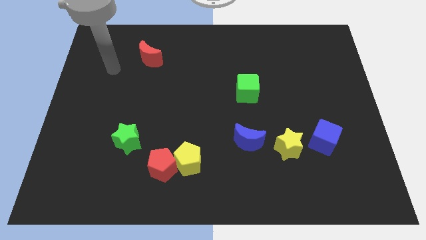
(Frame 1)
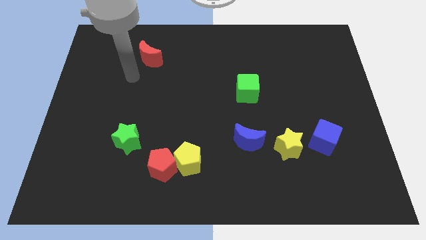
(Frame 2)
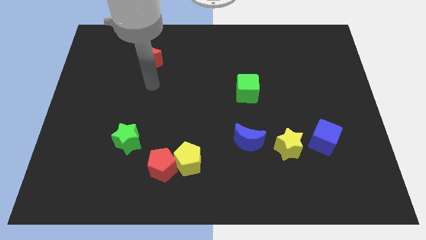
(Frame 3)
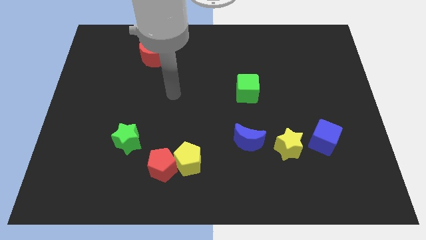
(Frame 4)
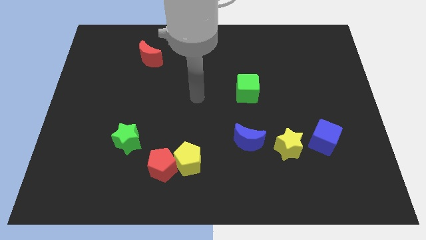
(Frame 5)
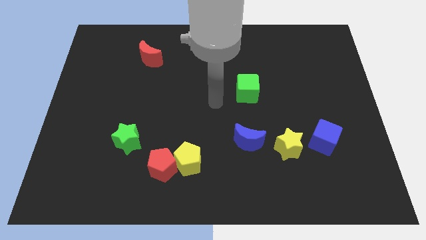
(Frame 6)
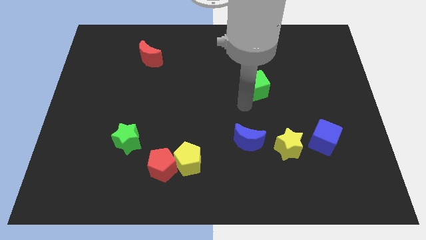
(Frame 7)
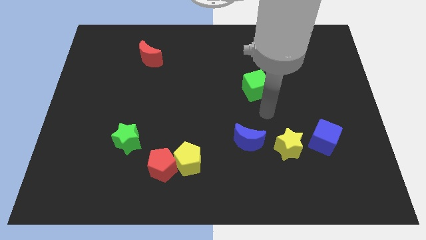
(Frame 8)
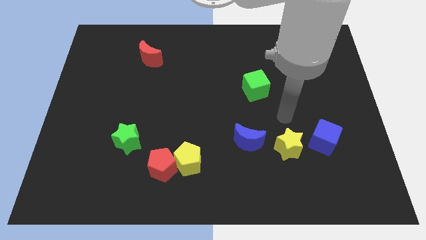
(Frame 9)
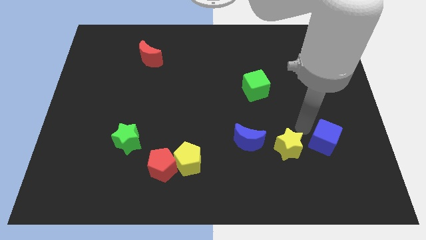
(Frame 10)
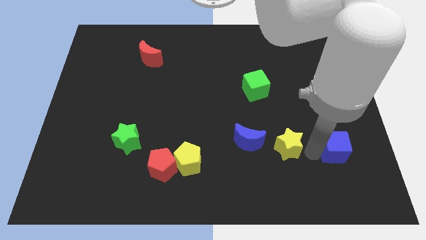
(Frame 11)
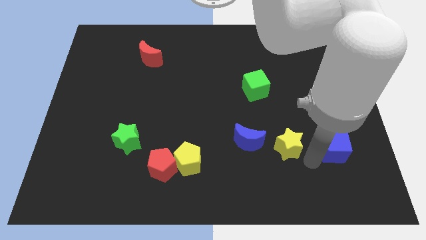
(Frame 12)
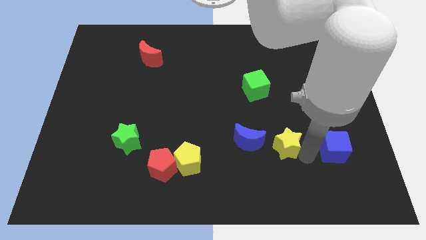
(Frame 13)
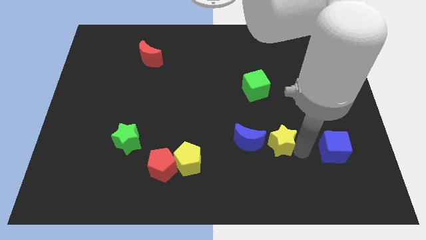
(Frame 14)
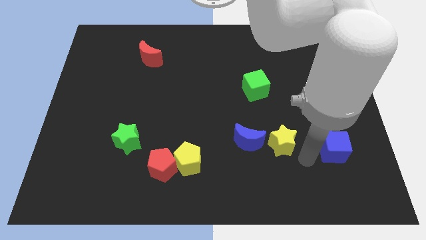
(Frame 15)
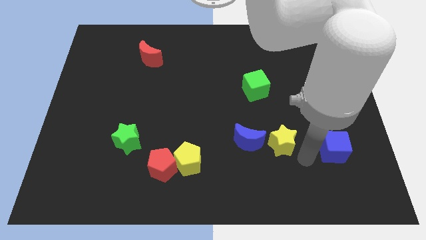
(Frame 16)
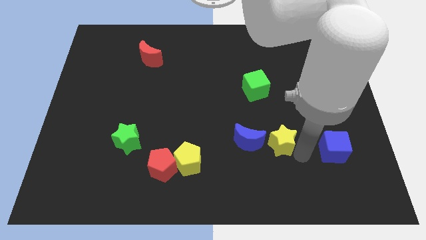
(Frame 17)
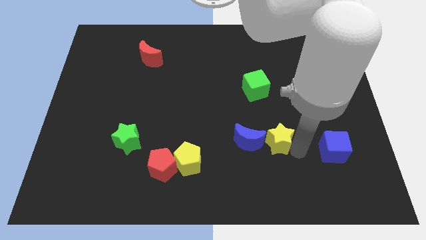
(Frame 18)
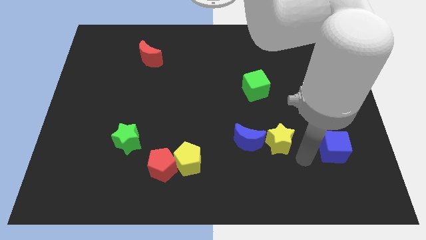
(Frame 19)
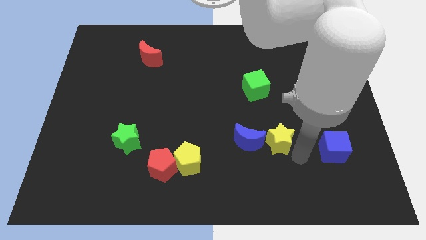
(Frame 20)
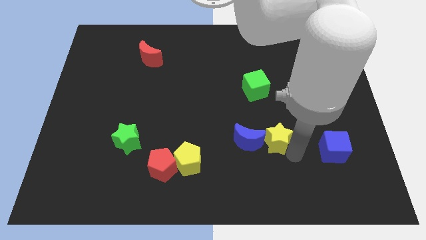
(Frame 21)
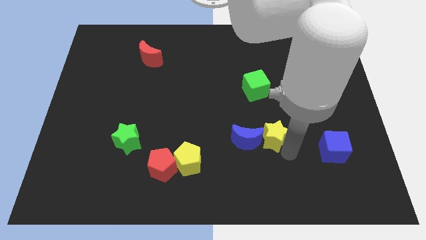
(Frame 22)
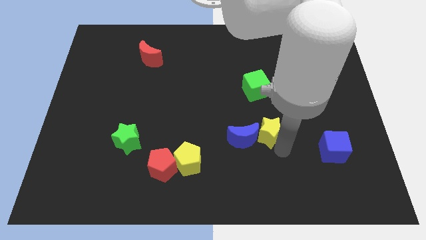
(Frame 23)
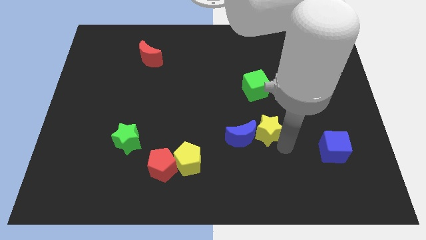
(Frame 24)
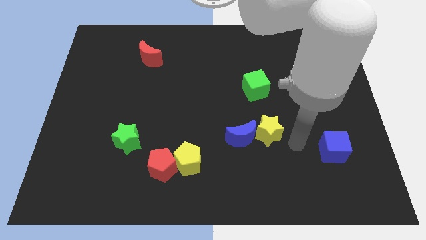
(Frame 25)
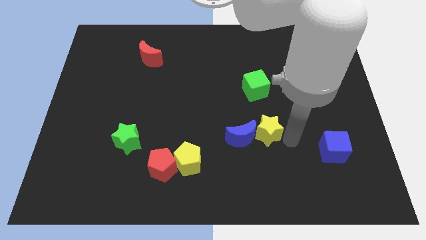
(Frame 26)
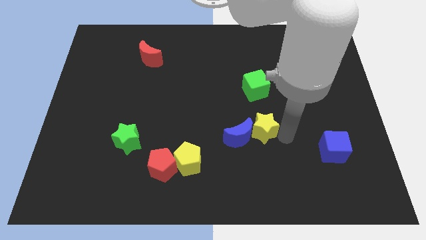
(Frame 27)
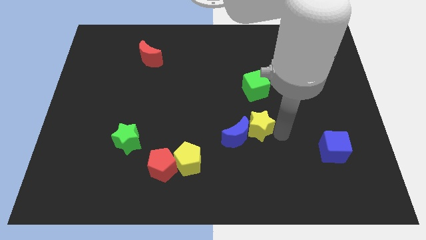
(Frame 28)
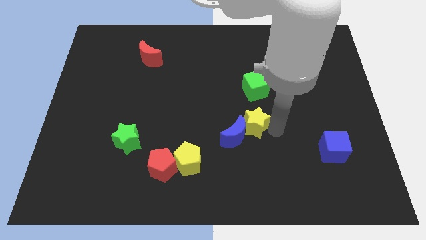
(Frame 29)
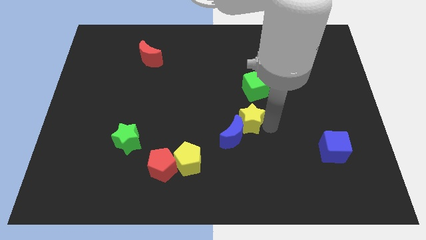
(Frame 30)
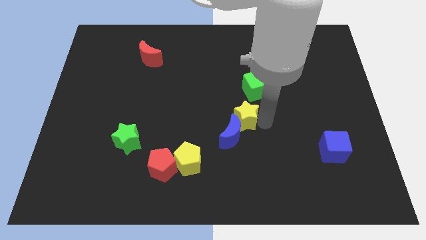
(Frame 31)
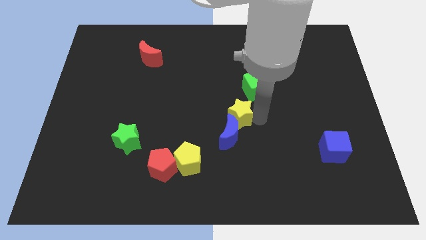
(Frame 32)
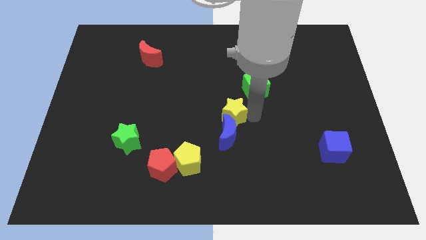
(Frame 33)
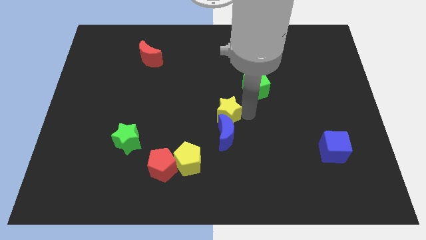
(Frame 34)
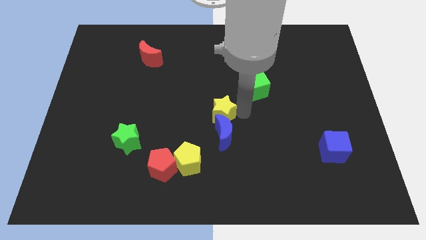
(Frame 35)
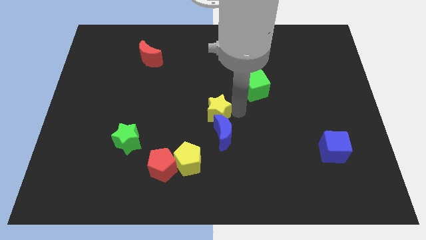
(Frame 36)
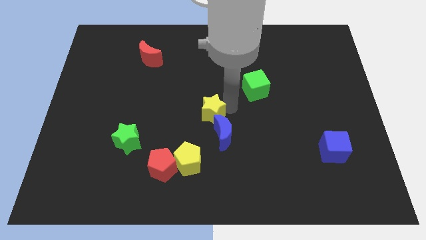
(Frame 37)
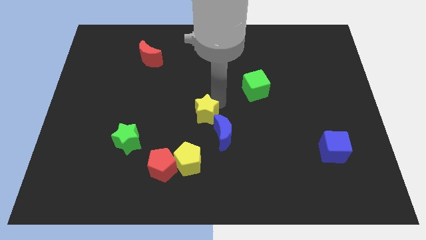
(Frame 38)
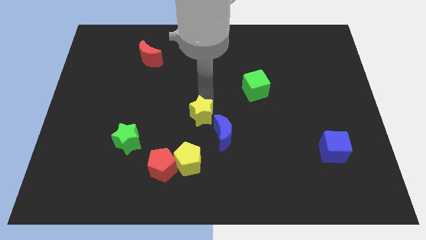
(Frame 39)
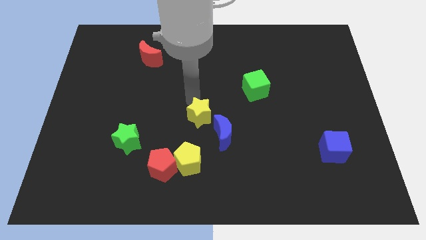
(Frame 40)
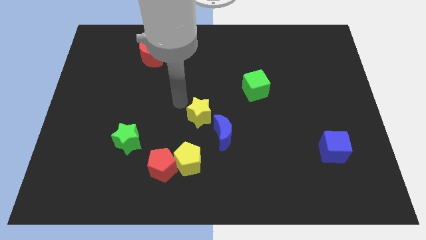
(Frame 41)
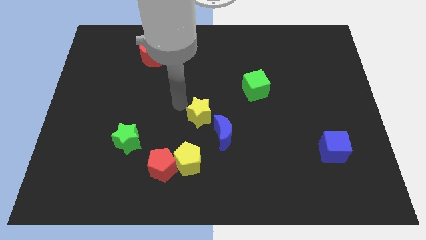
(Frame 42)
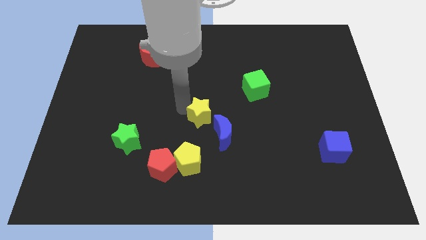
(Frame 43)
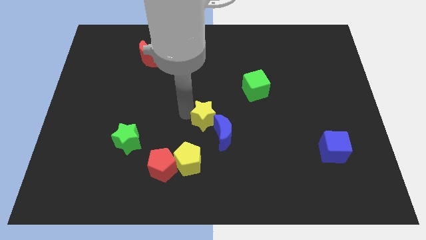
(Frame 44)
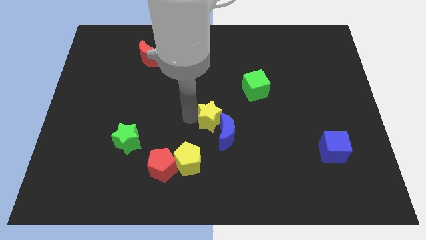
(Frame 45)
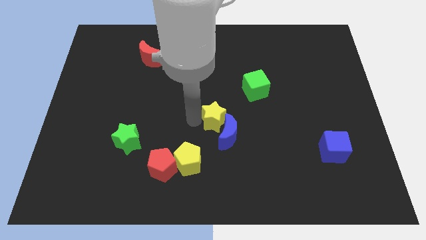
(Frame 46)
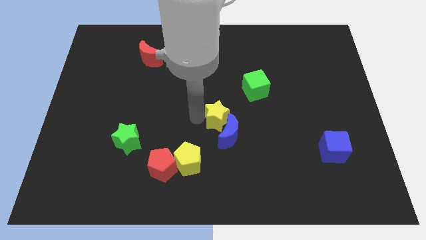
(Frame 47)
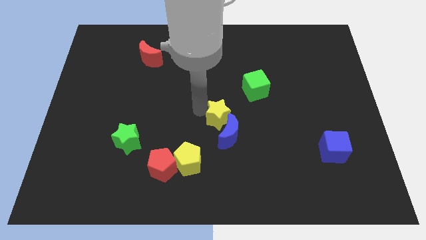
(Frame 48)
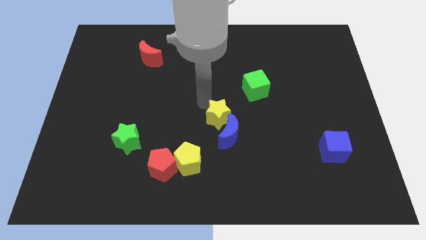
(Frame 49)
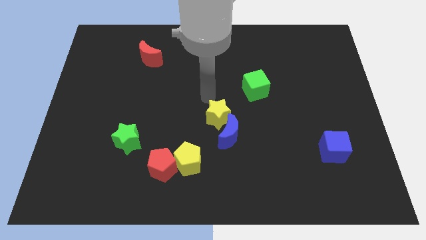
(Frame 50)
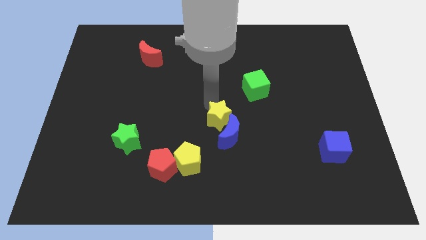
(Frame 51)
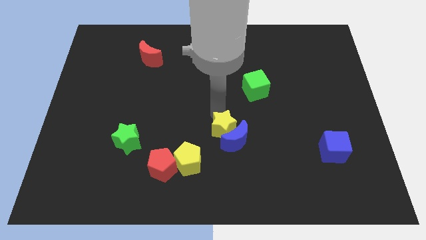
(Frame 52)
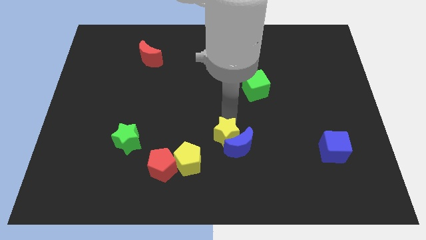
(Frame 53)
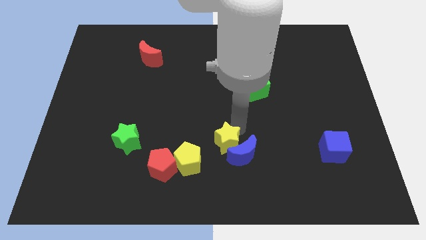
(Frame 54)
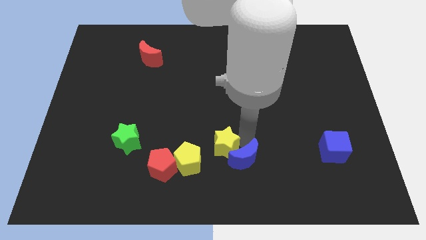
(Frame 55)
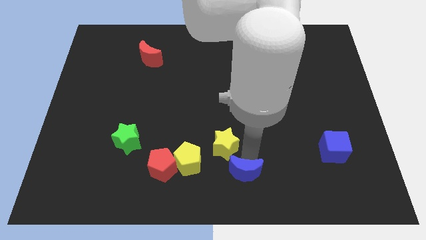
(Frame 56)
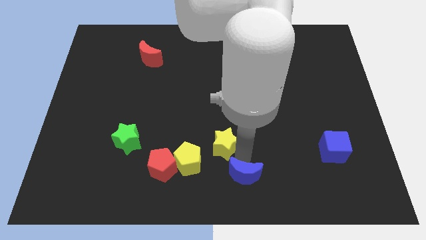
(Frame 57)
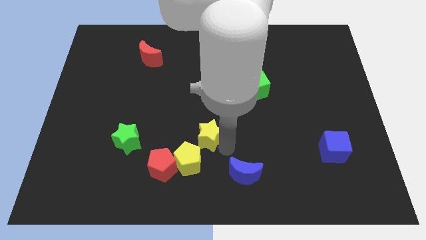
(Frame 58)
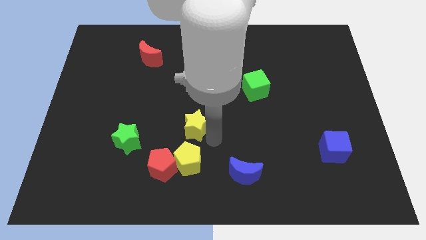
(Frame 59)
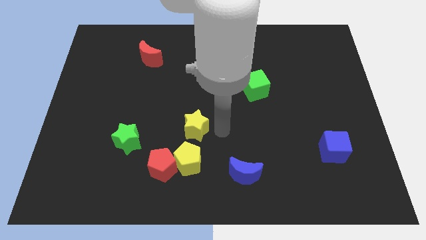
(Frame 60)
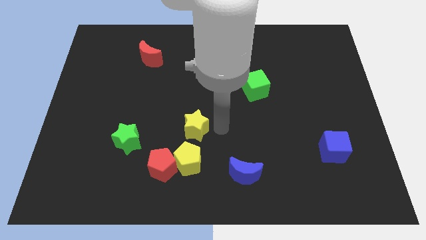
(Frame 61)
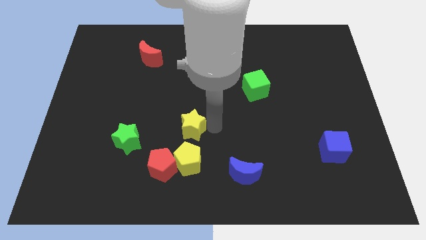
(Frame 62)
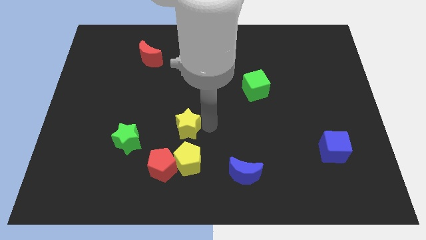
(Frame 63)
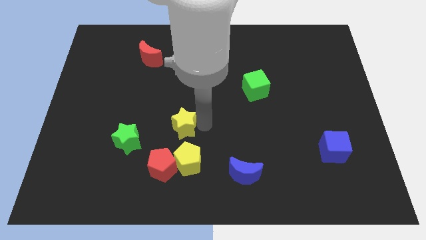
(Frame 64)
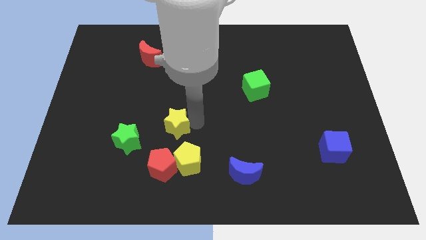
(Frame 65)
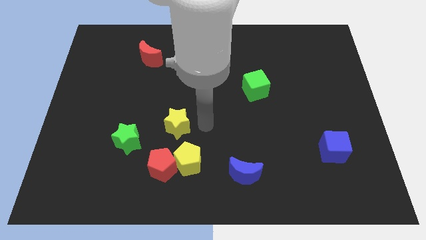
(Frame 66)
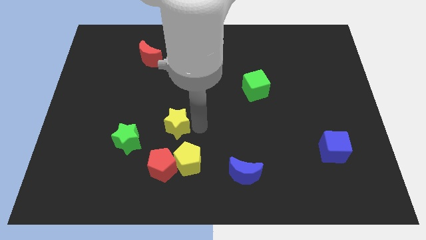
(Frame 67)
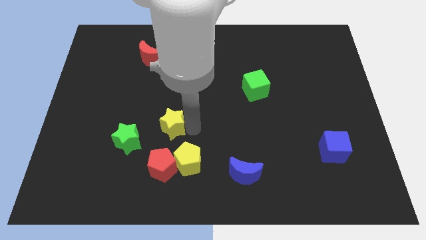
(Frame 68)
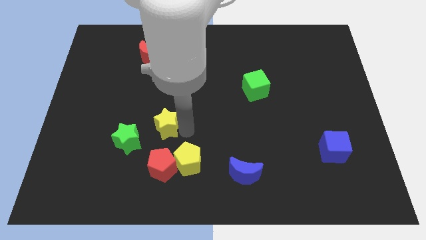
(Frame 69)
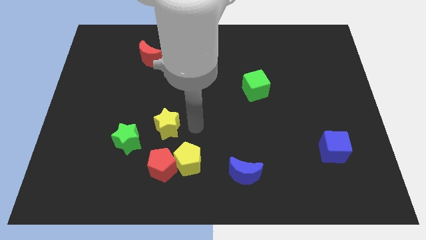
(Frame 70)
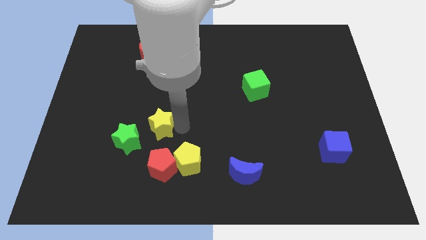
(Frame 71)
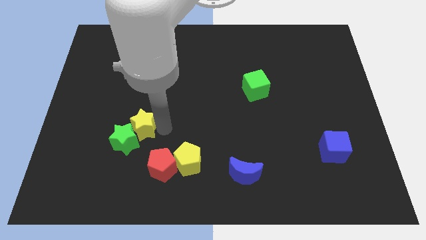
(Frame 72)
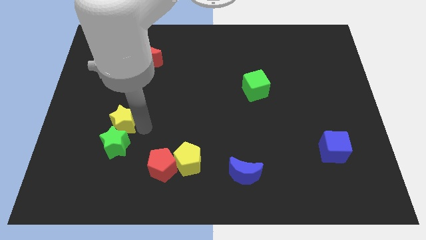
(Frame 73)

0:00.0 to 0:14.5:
push the yellow star to the top left side of the green star
